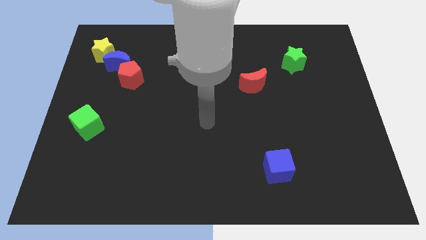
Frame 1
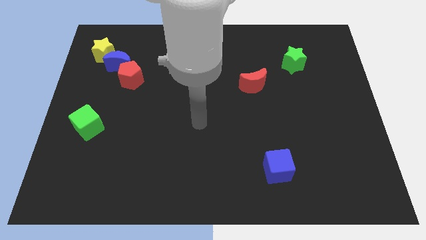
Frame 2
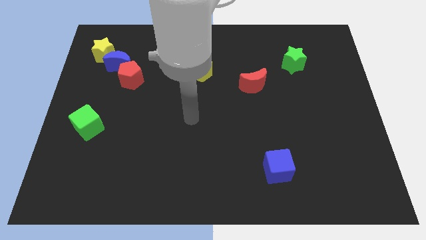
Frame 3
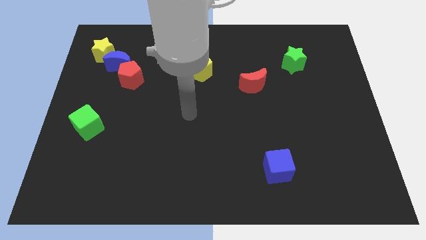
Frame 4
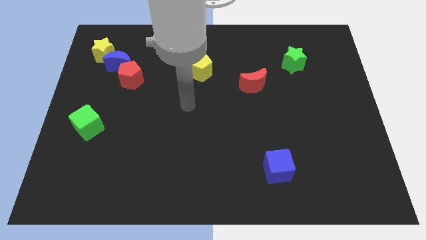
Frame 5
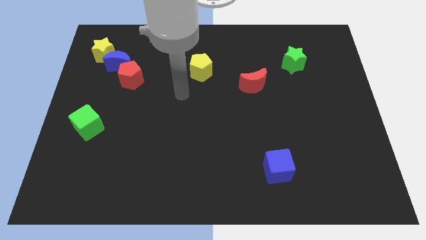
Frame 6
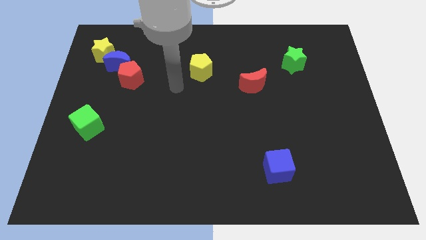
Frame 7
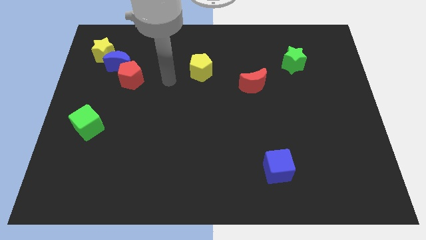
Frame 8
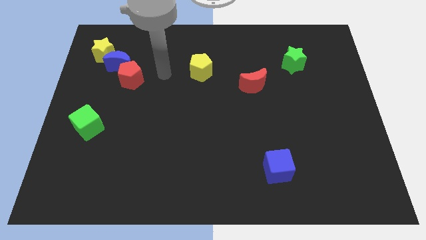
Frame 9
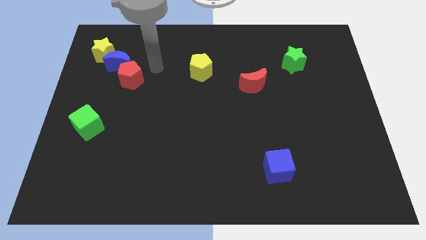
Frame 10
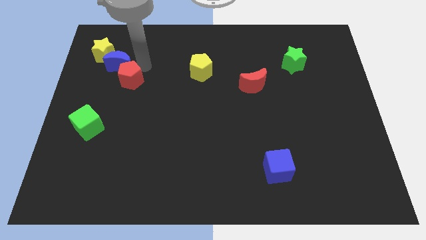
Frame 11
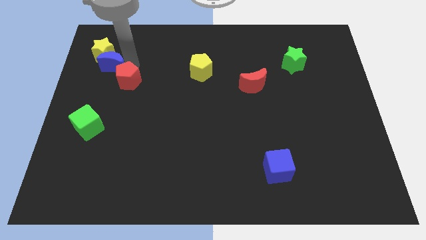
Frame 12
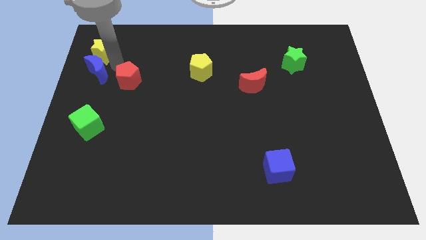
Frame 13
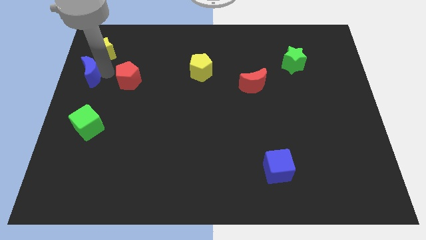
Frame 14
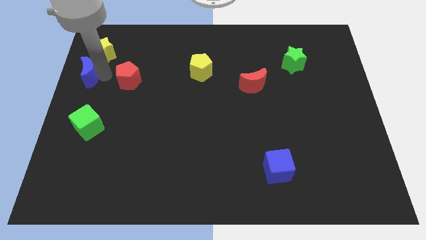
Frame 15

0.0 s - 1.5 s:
separate the red pentagon from the blue moon

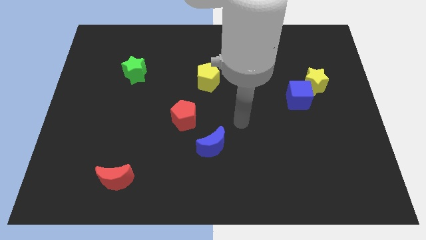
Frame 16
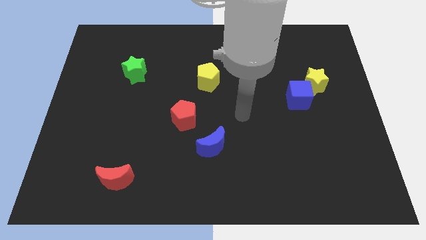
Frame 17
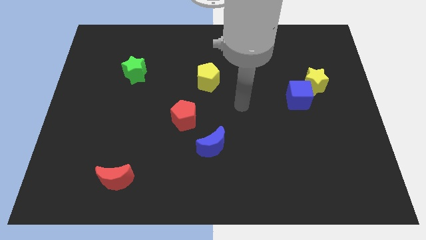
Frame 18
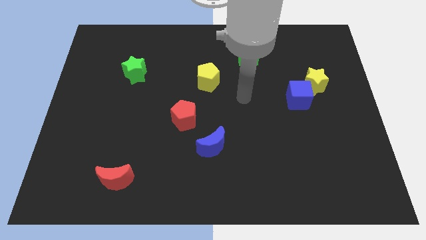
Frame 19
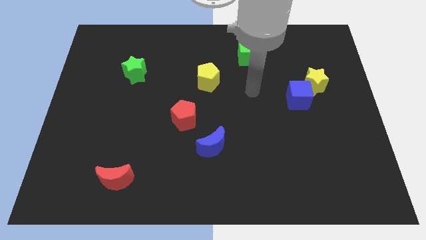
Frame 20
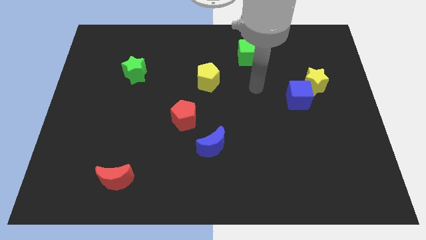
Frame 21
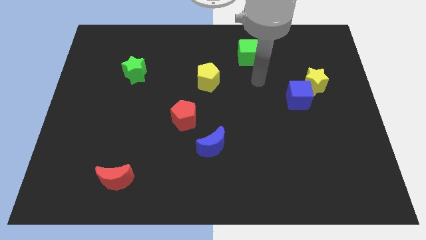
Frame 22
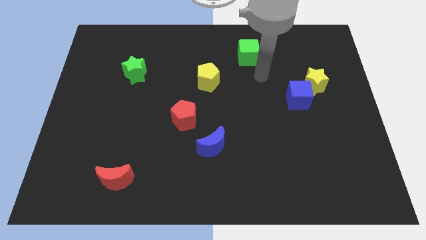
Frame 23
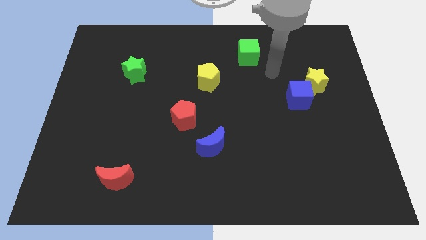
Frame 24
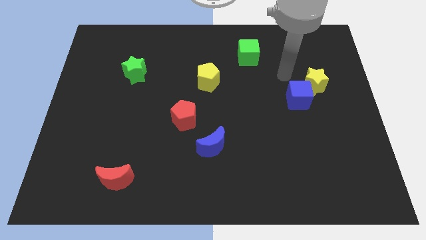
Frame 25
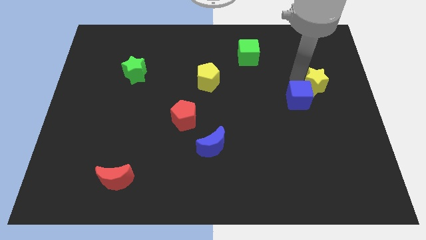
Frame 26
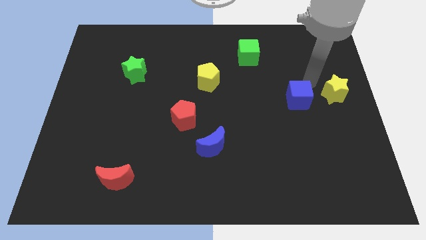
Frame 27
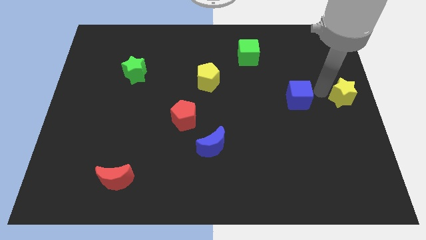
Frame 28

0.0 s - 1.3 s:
separate the blue cube from the yellow star

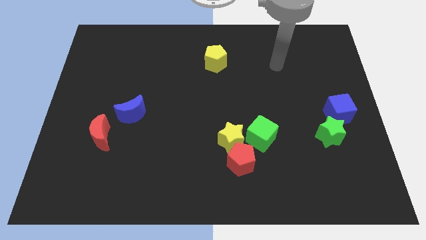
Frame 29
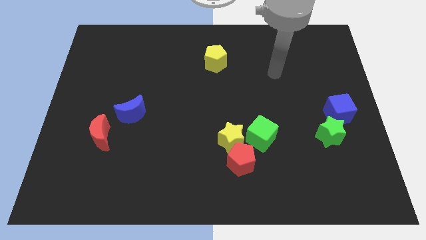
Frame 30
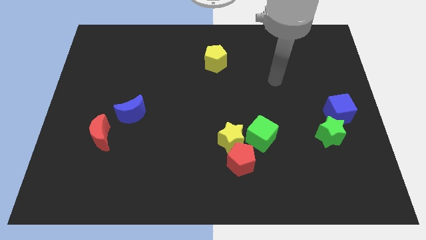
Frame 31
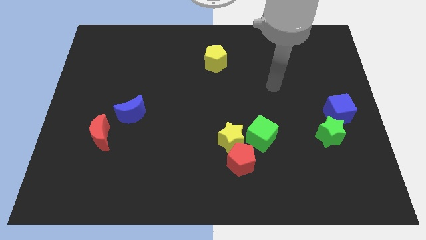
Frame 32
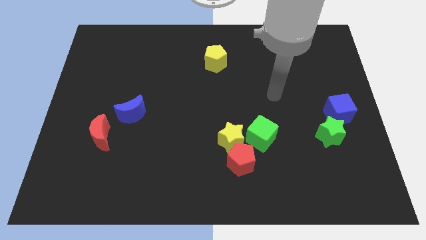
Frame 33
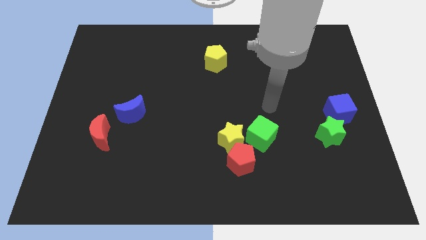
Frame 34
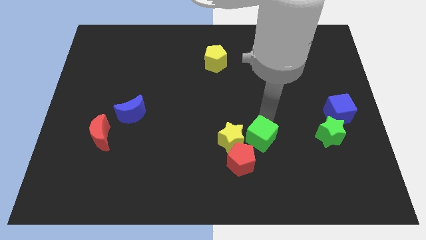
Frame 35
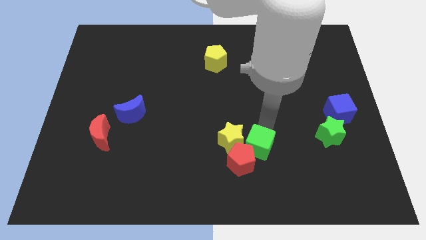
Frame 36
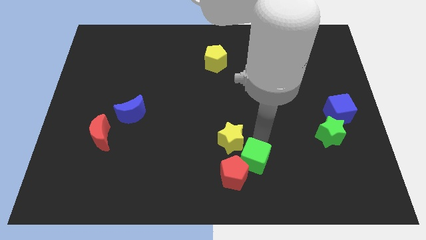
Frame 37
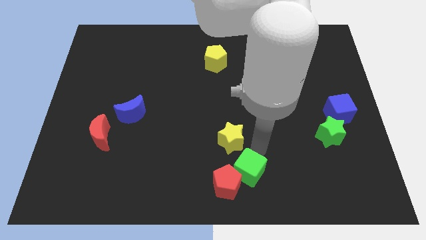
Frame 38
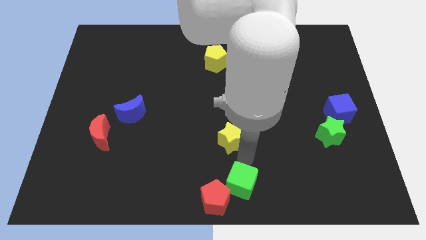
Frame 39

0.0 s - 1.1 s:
pull the yellow star apart from the red pentagon and green cube

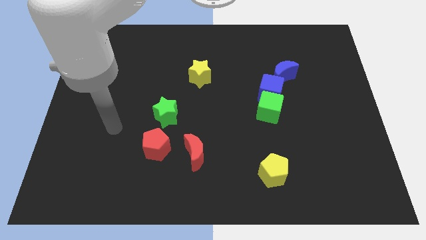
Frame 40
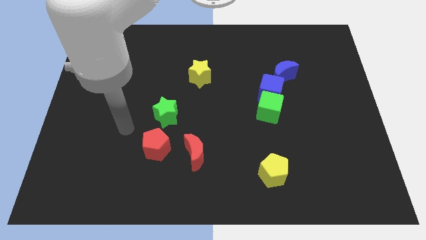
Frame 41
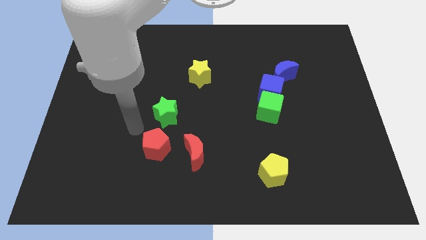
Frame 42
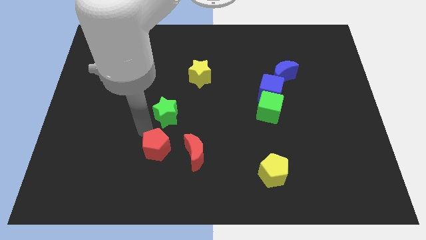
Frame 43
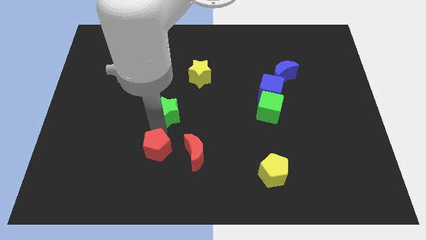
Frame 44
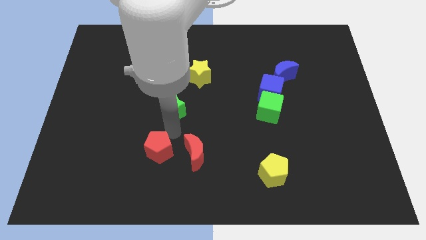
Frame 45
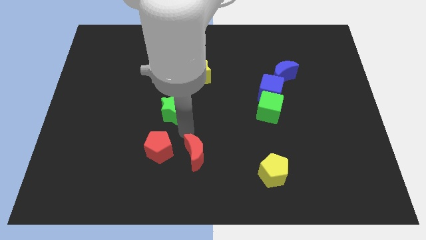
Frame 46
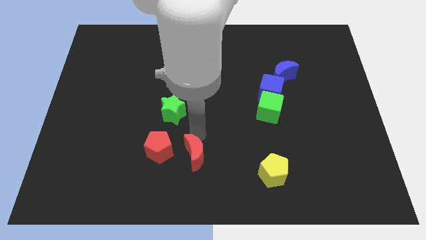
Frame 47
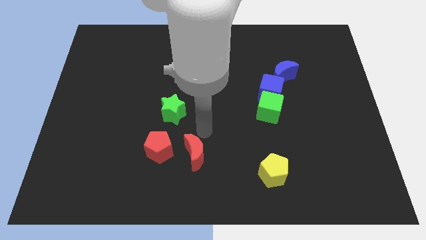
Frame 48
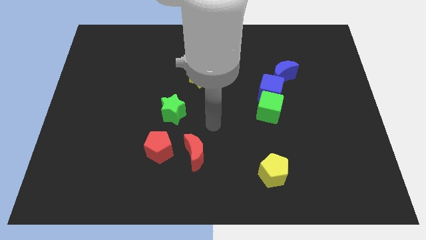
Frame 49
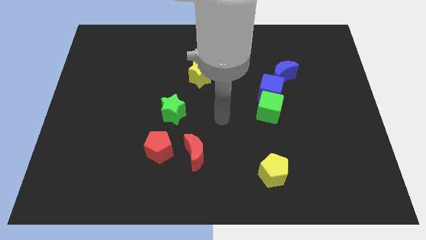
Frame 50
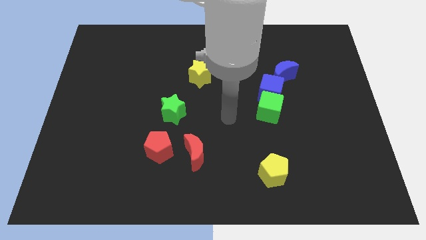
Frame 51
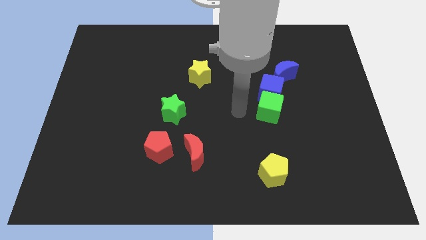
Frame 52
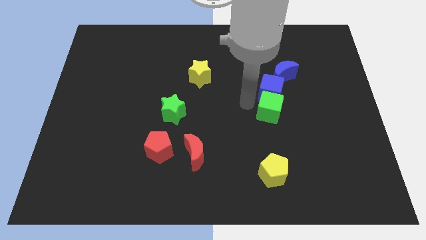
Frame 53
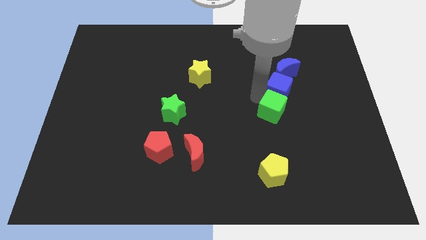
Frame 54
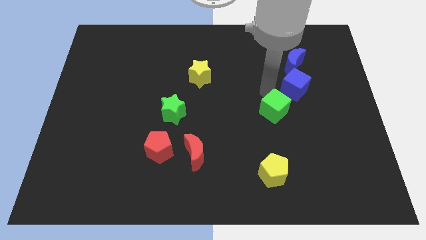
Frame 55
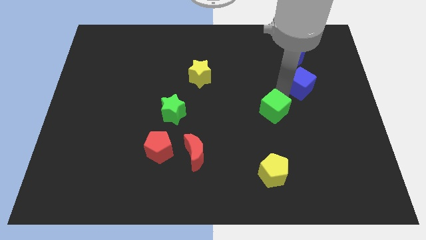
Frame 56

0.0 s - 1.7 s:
move the green cube away from the blue cube

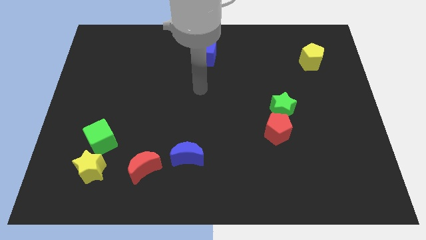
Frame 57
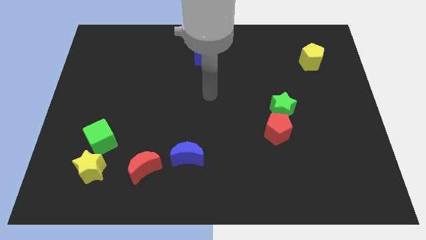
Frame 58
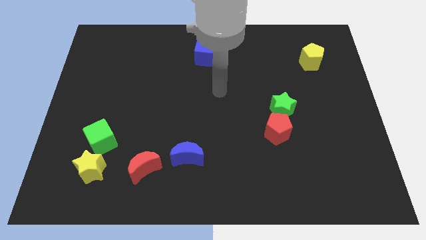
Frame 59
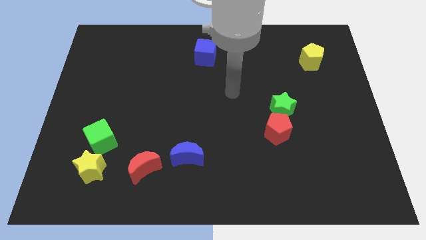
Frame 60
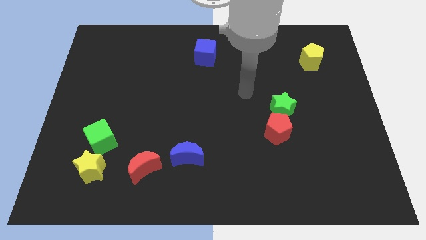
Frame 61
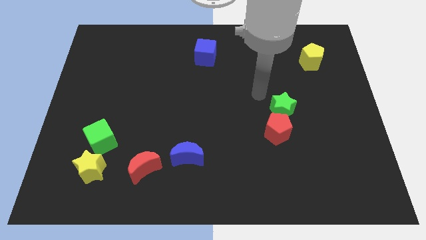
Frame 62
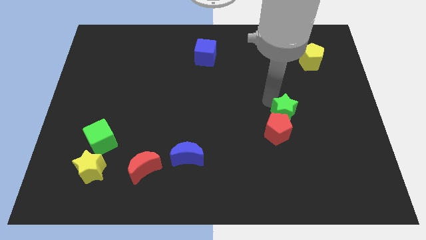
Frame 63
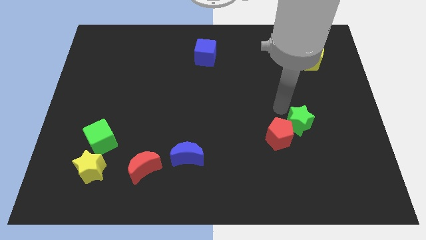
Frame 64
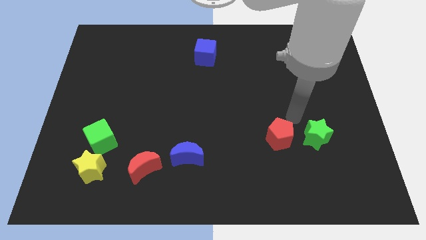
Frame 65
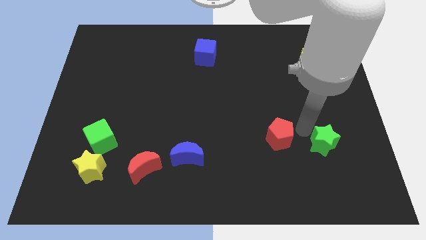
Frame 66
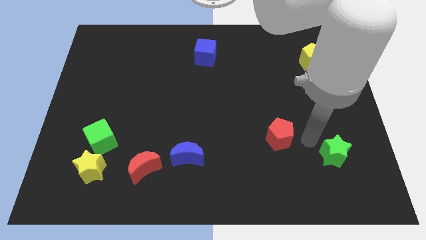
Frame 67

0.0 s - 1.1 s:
move the red pentagon away from the green star

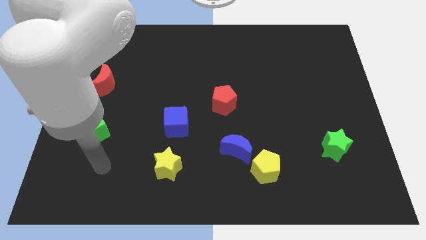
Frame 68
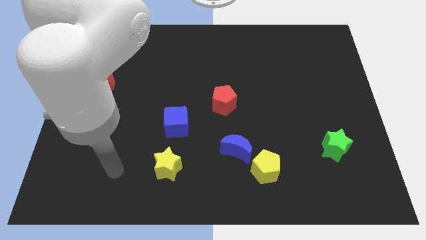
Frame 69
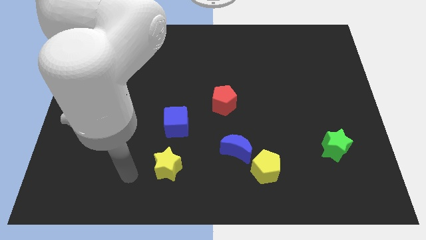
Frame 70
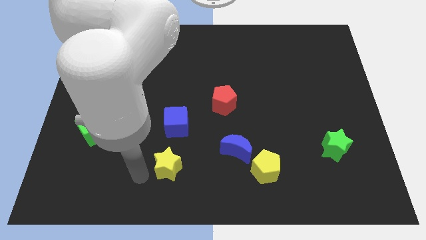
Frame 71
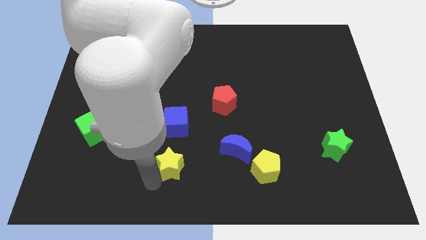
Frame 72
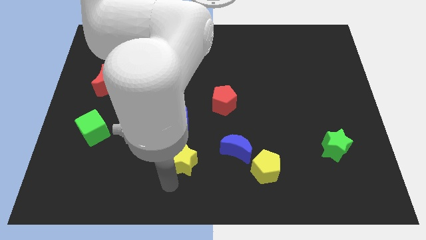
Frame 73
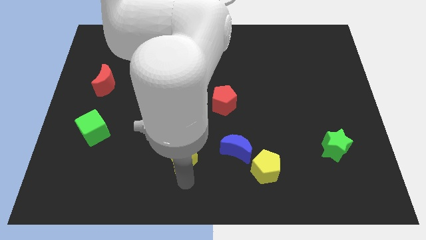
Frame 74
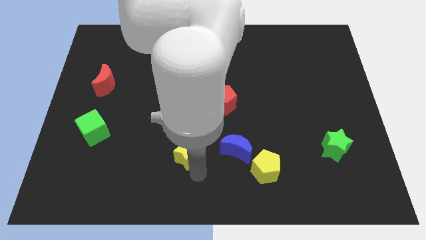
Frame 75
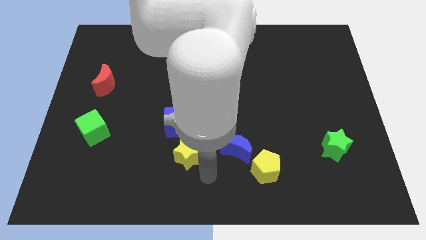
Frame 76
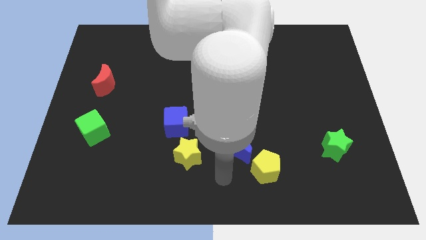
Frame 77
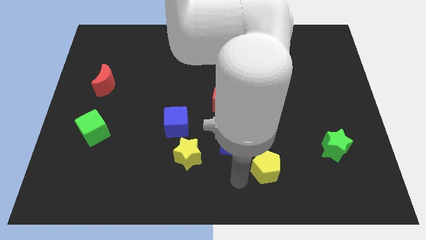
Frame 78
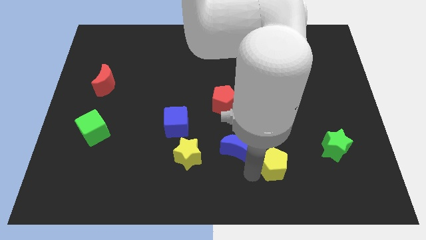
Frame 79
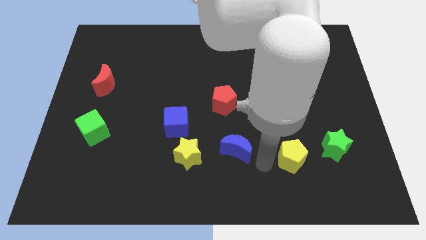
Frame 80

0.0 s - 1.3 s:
pull the blue moon apart from the yellow pentagon

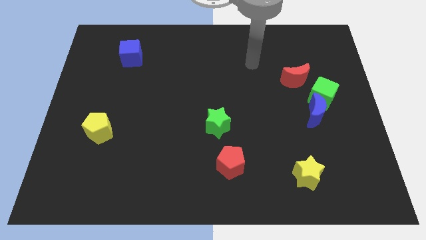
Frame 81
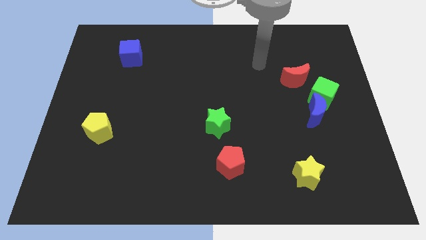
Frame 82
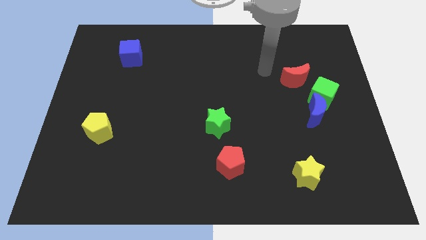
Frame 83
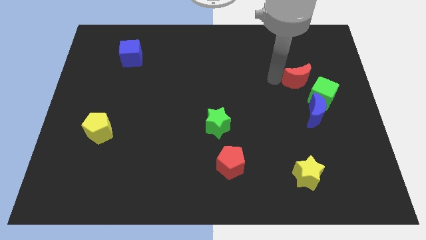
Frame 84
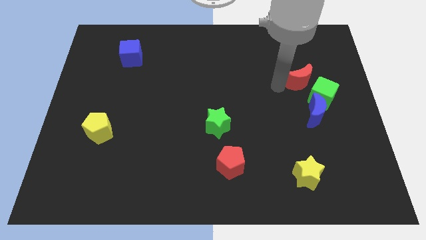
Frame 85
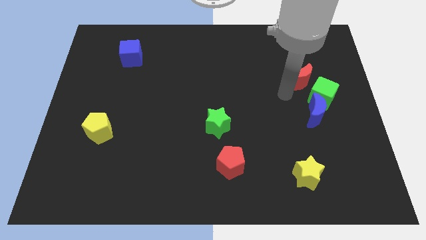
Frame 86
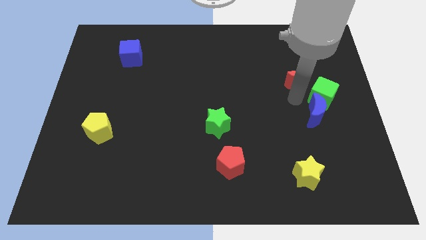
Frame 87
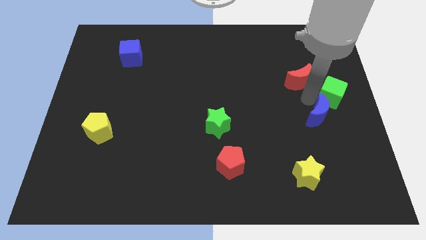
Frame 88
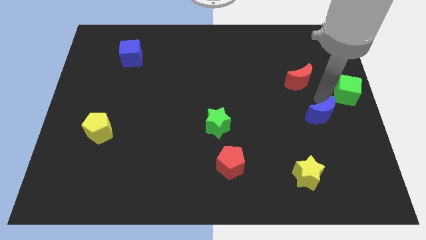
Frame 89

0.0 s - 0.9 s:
move the blue moon away from the green cube

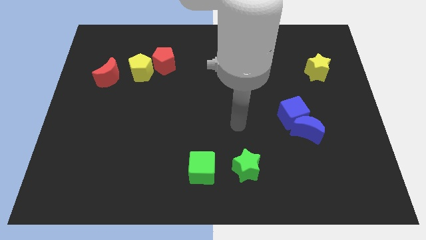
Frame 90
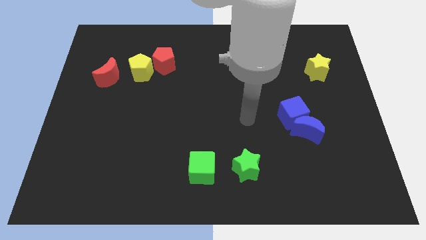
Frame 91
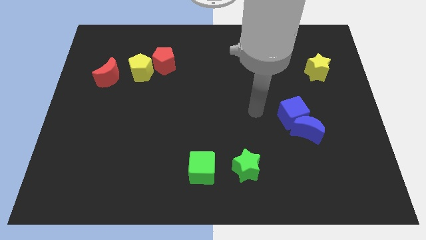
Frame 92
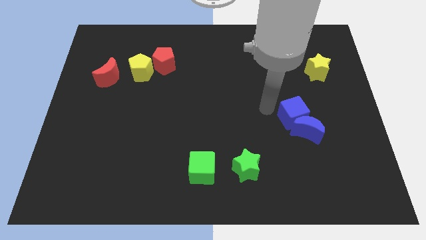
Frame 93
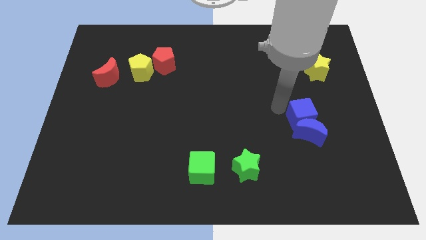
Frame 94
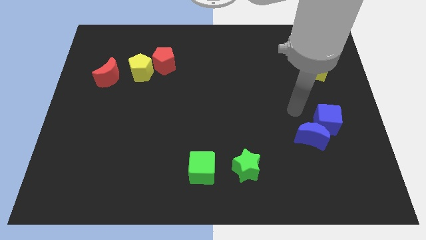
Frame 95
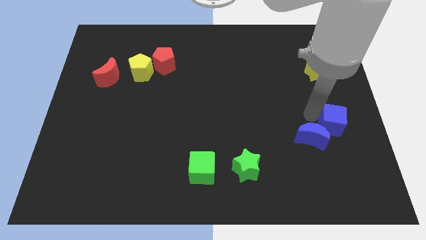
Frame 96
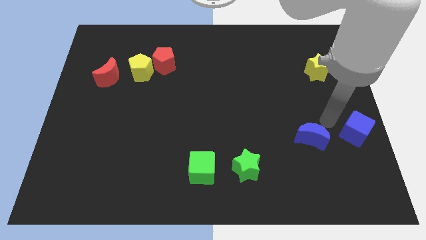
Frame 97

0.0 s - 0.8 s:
pull the blue moon apart from the blue cube
